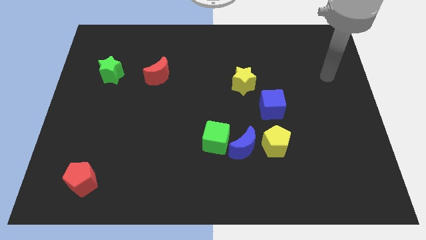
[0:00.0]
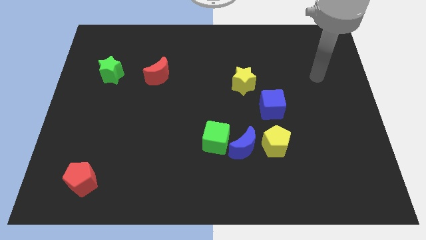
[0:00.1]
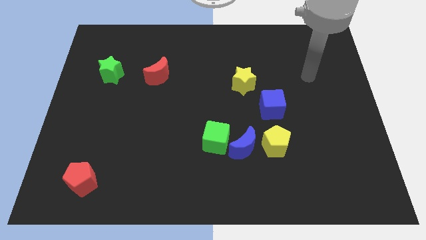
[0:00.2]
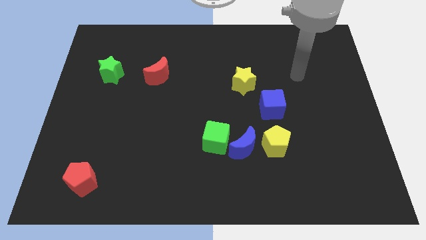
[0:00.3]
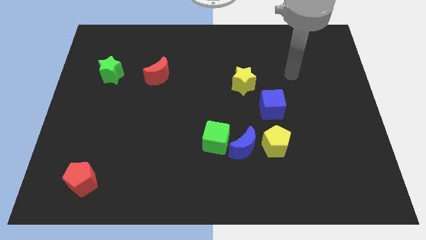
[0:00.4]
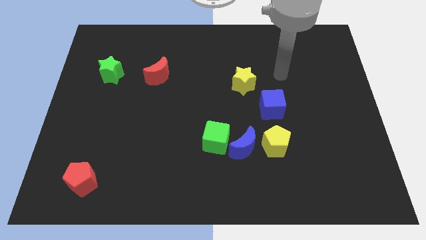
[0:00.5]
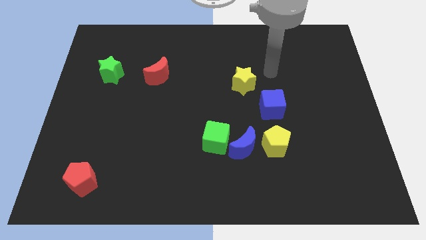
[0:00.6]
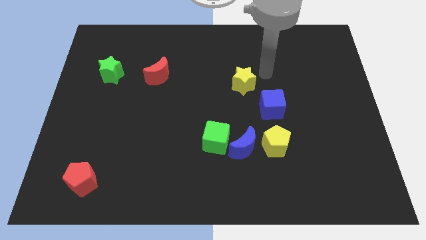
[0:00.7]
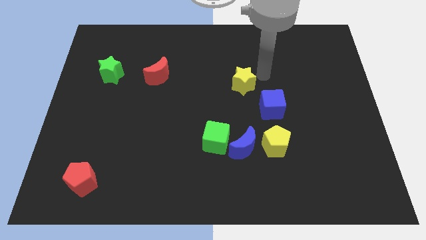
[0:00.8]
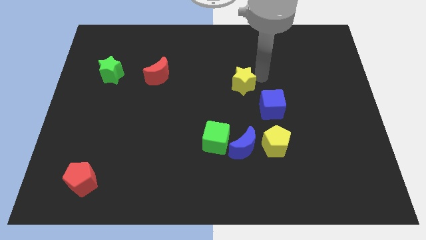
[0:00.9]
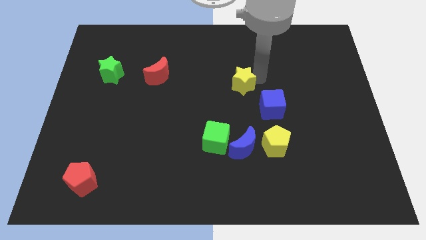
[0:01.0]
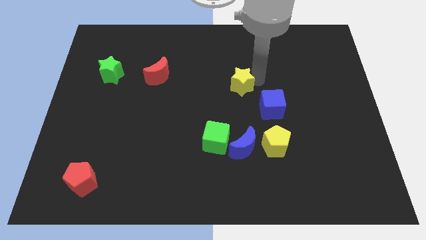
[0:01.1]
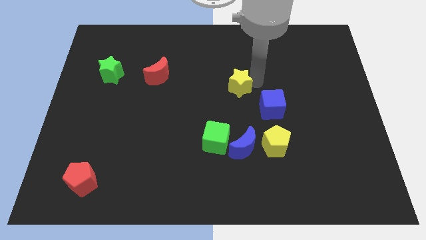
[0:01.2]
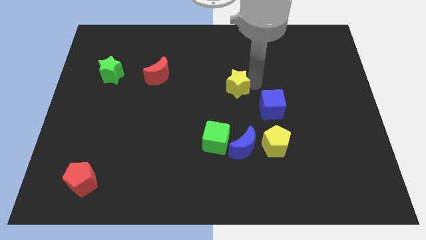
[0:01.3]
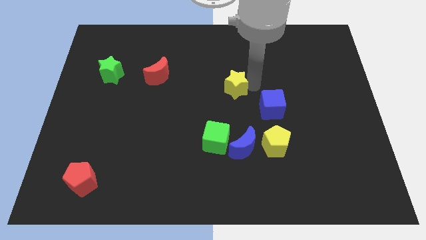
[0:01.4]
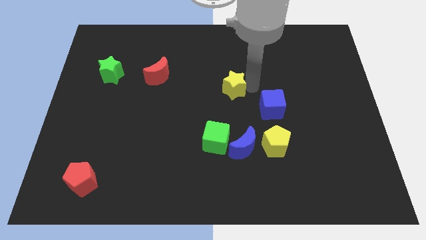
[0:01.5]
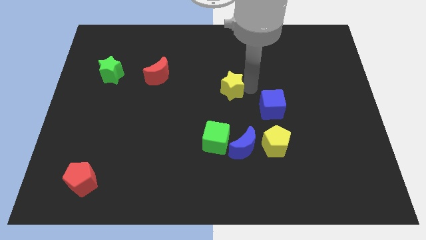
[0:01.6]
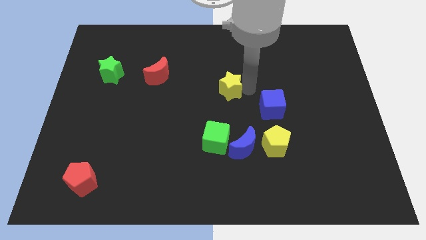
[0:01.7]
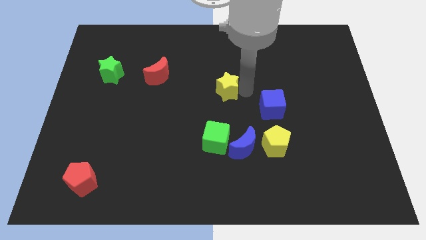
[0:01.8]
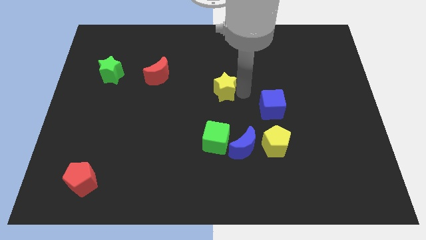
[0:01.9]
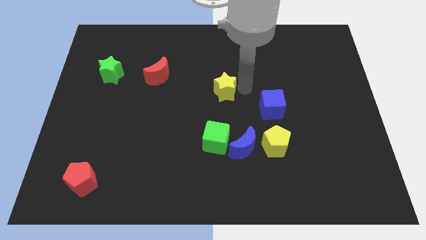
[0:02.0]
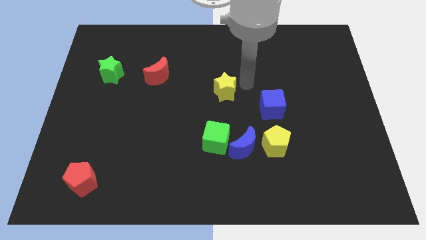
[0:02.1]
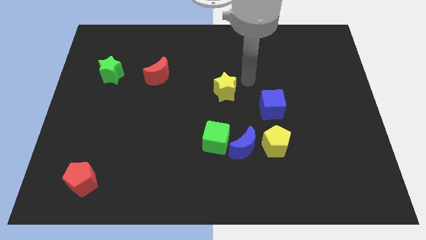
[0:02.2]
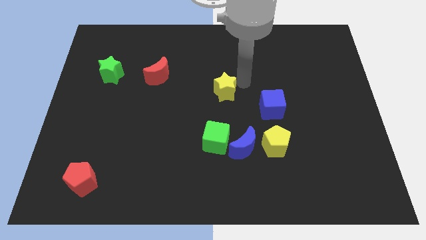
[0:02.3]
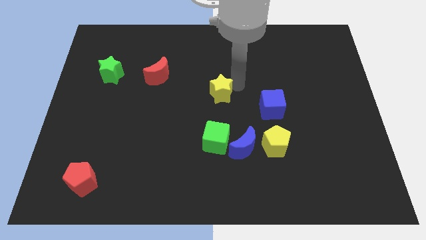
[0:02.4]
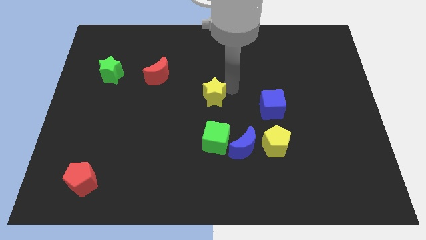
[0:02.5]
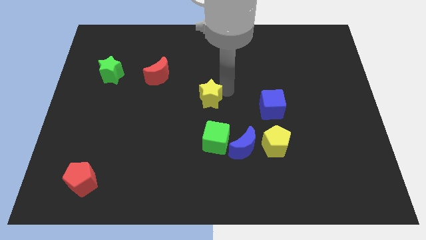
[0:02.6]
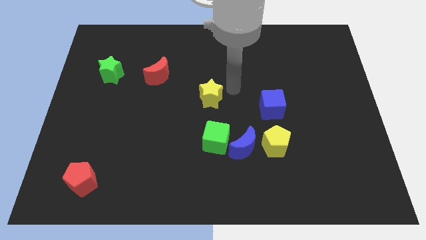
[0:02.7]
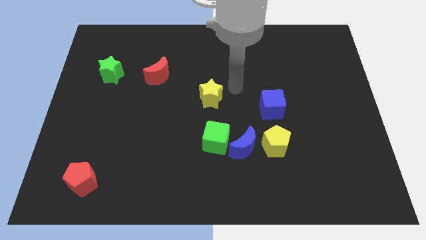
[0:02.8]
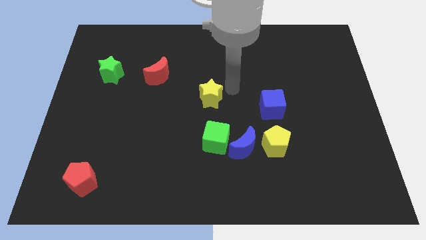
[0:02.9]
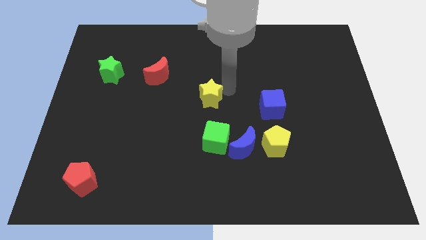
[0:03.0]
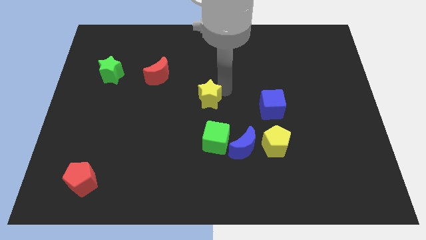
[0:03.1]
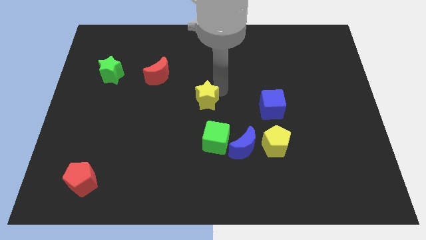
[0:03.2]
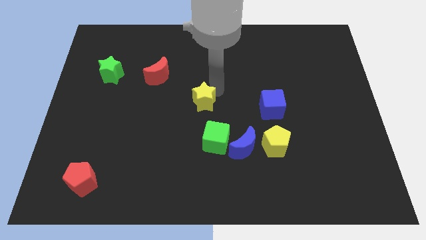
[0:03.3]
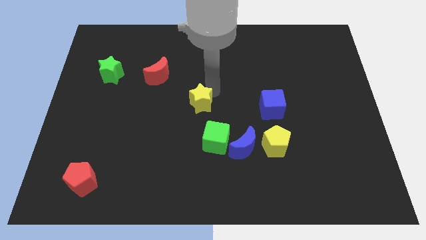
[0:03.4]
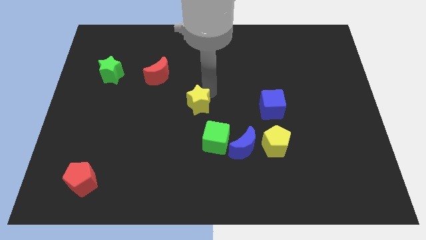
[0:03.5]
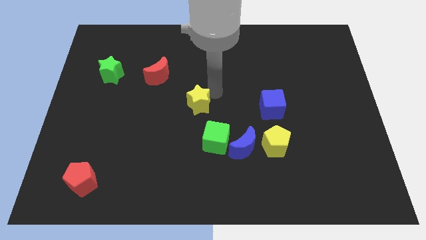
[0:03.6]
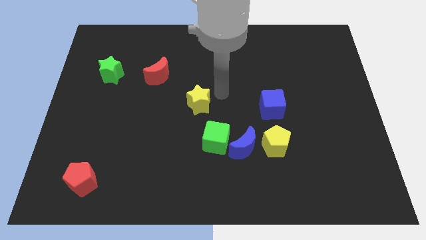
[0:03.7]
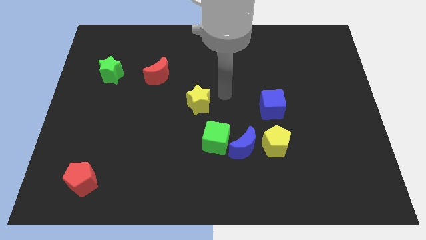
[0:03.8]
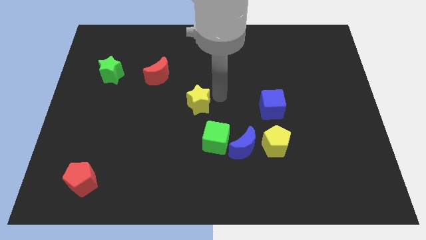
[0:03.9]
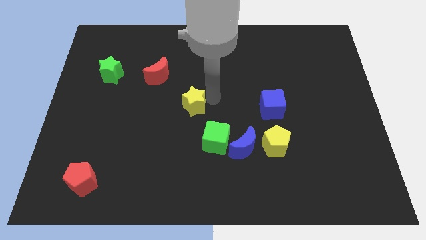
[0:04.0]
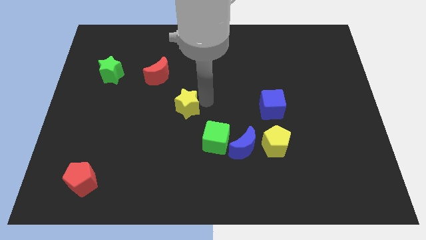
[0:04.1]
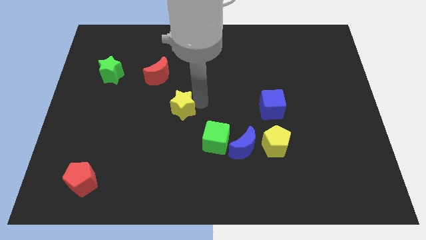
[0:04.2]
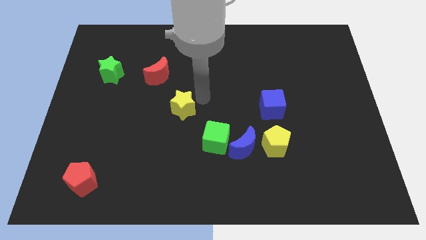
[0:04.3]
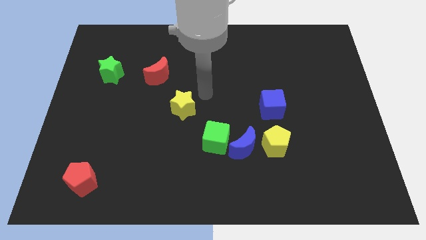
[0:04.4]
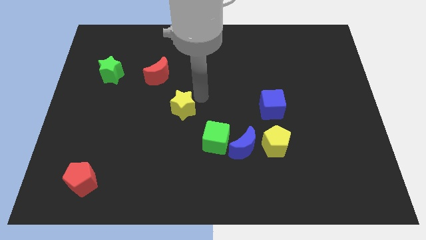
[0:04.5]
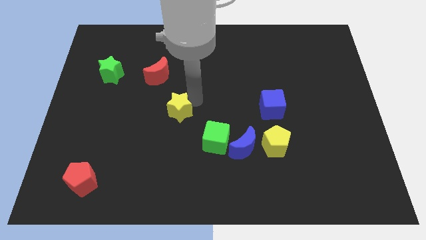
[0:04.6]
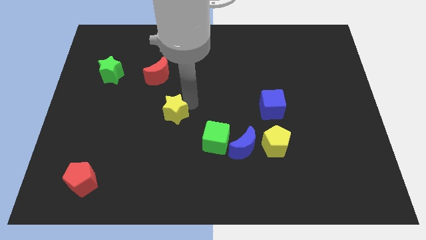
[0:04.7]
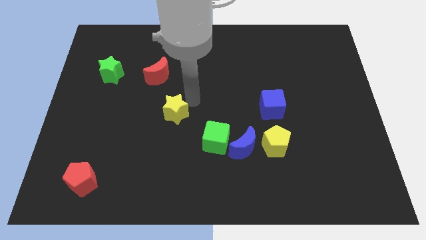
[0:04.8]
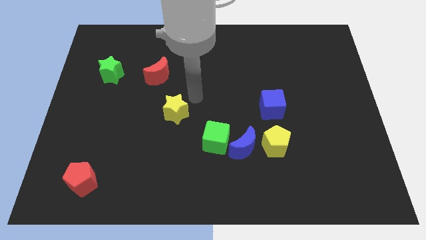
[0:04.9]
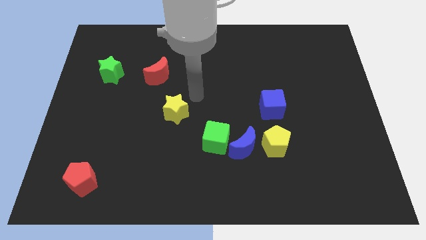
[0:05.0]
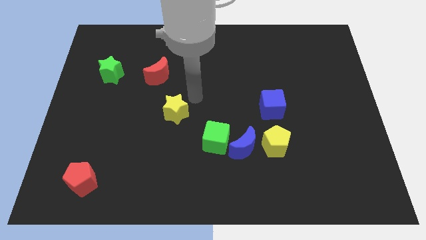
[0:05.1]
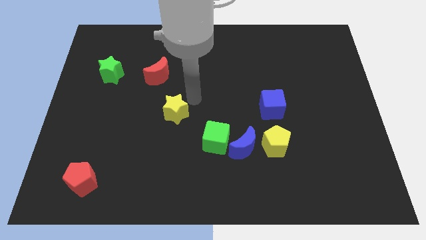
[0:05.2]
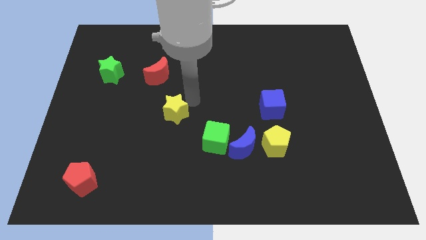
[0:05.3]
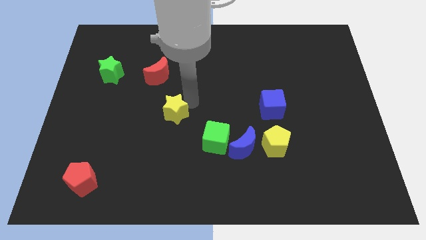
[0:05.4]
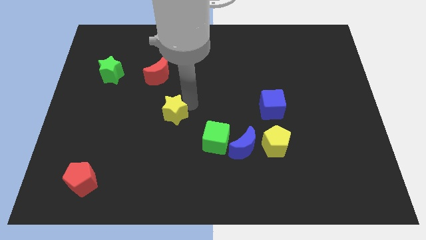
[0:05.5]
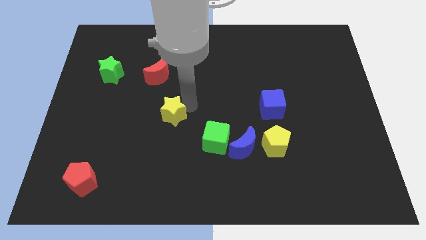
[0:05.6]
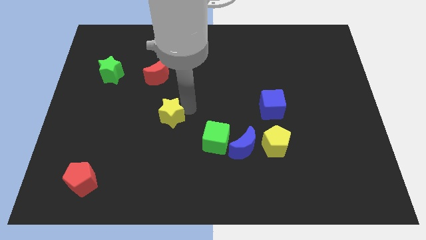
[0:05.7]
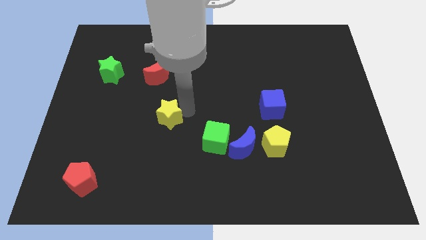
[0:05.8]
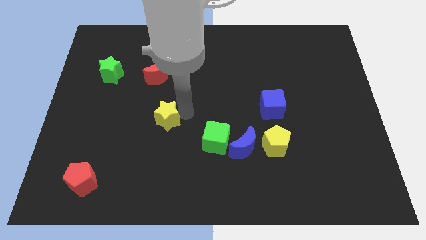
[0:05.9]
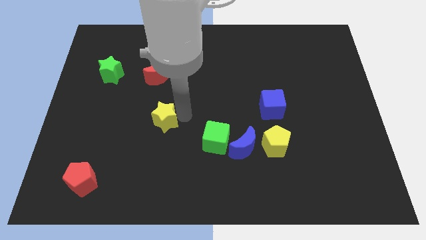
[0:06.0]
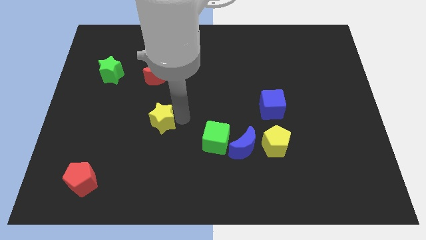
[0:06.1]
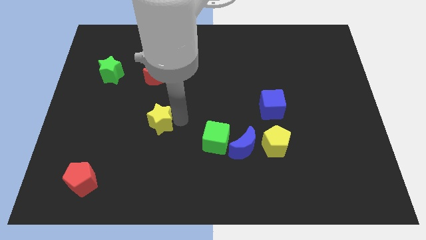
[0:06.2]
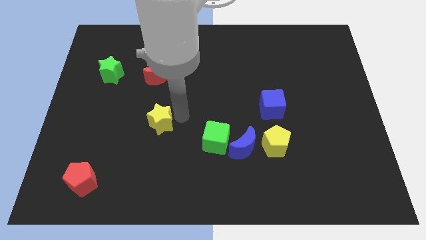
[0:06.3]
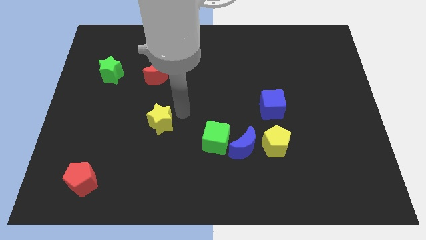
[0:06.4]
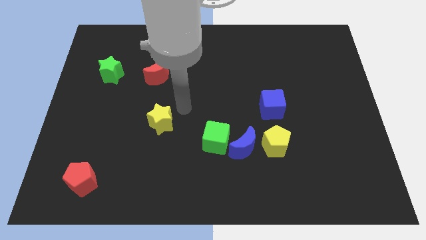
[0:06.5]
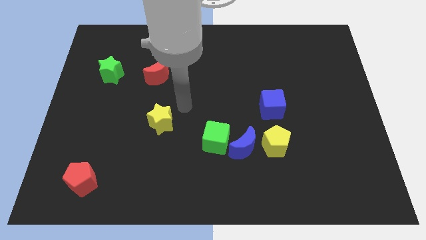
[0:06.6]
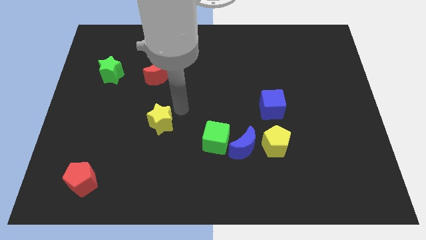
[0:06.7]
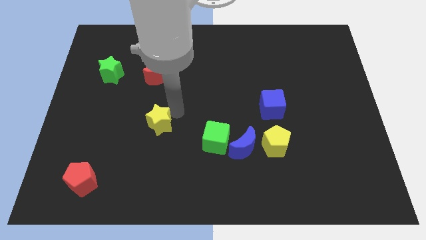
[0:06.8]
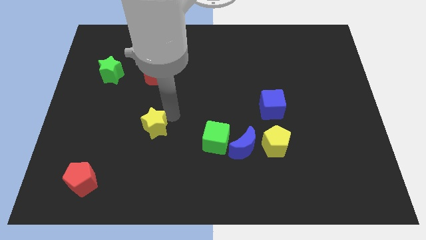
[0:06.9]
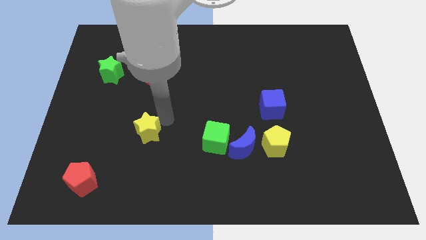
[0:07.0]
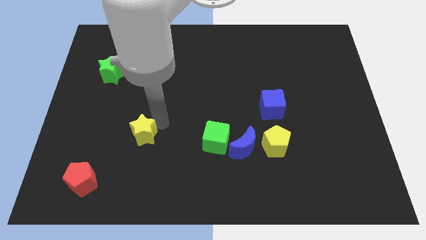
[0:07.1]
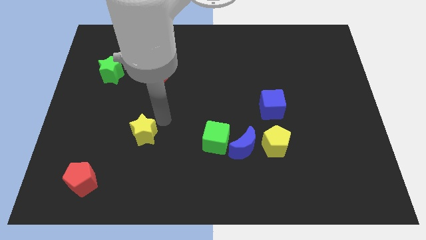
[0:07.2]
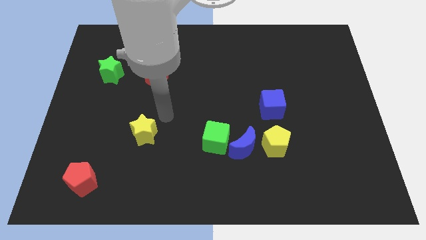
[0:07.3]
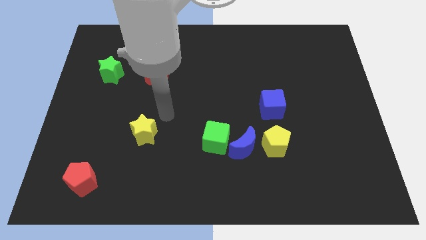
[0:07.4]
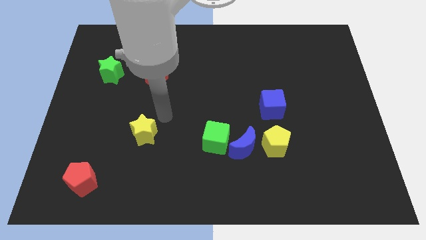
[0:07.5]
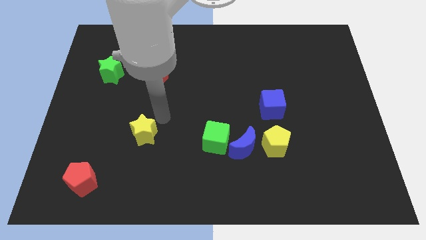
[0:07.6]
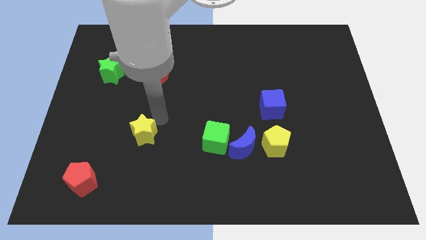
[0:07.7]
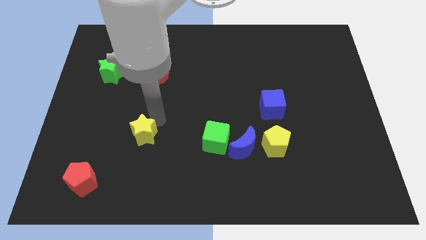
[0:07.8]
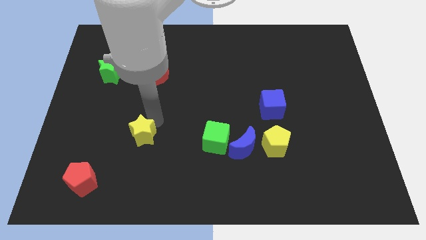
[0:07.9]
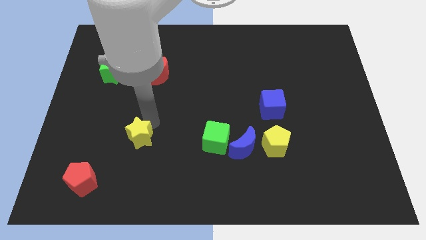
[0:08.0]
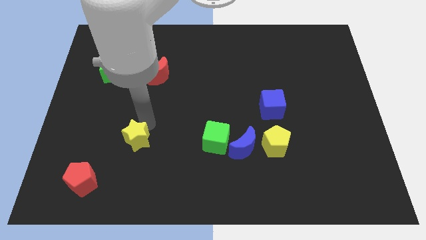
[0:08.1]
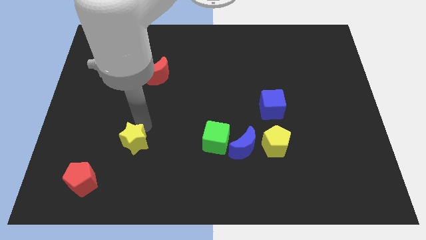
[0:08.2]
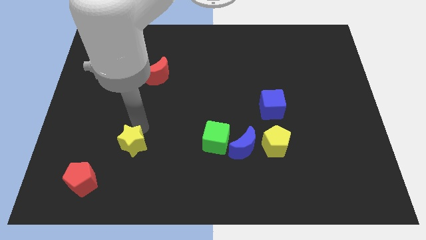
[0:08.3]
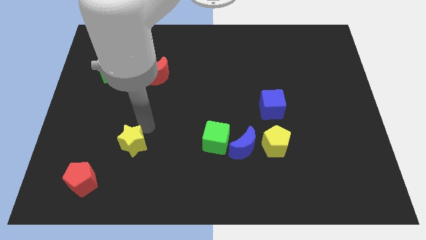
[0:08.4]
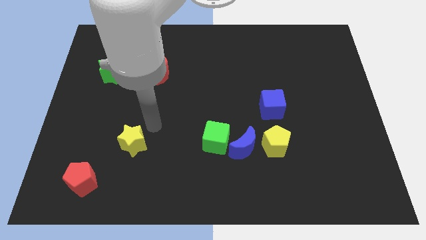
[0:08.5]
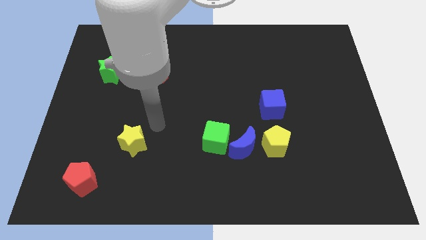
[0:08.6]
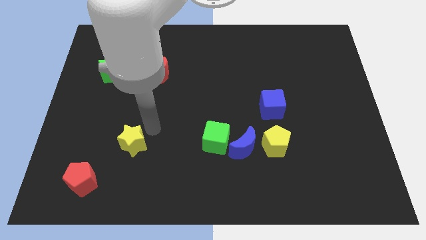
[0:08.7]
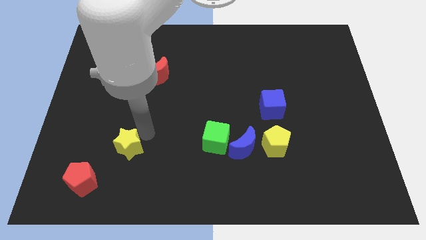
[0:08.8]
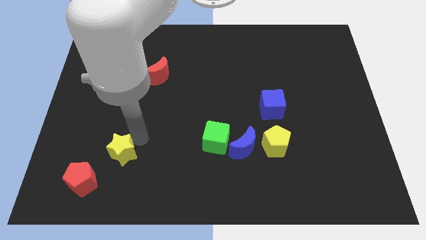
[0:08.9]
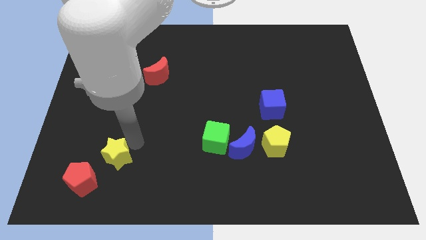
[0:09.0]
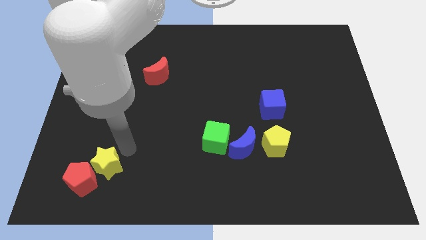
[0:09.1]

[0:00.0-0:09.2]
slide the yellow star next to the red pentagon
